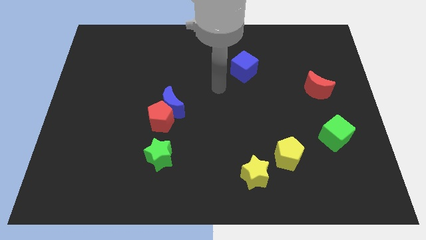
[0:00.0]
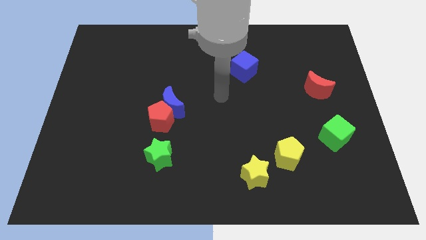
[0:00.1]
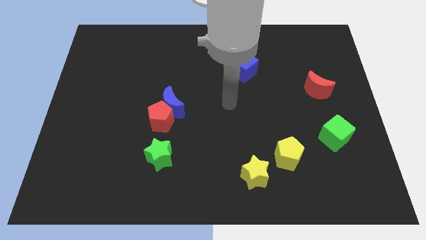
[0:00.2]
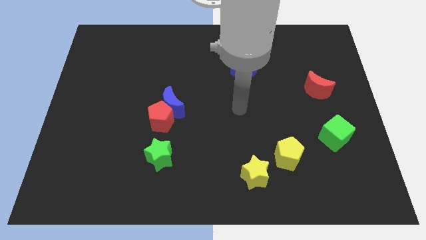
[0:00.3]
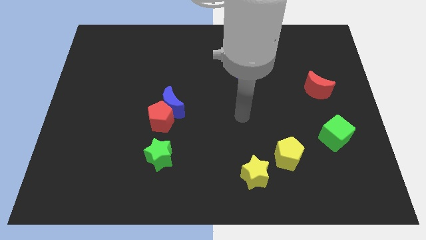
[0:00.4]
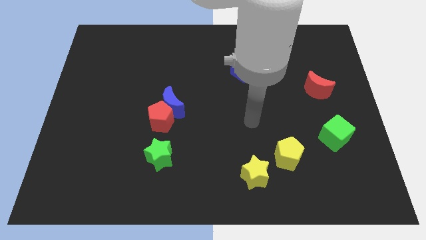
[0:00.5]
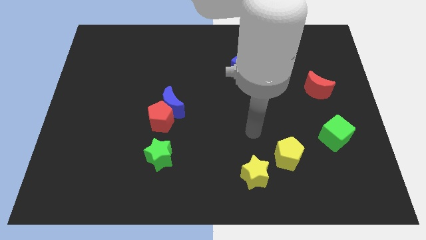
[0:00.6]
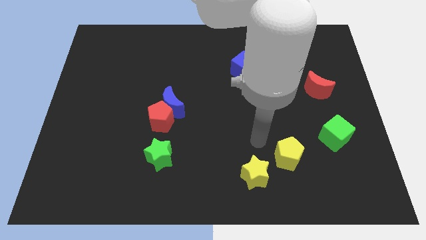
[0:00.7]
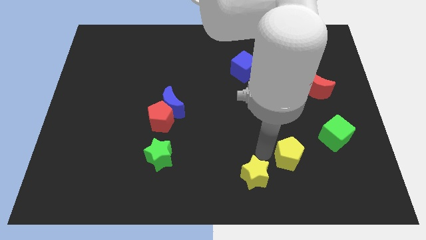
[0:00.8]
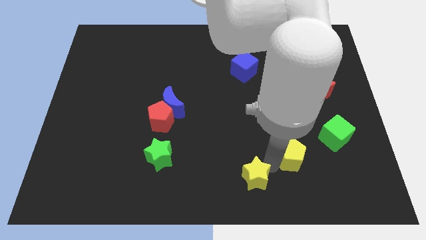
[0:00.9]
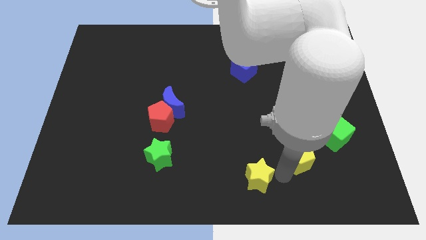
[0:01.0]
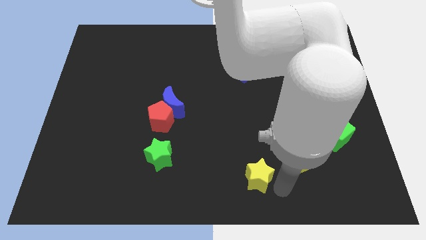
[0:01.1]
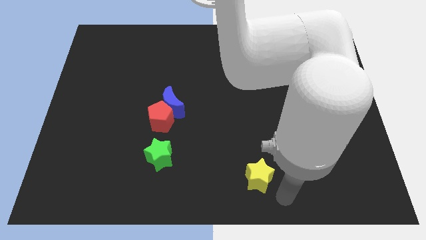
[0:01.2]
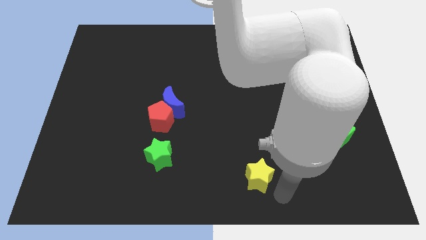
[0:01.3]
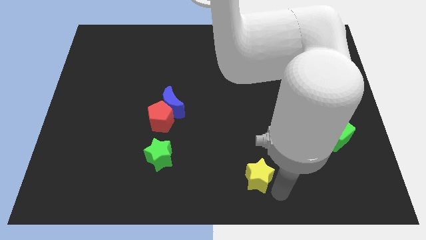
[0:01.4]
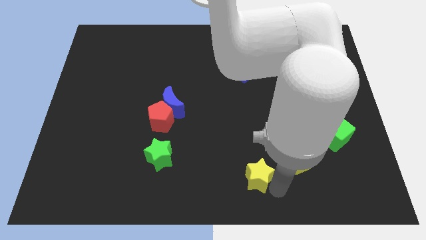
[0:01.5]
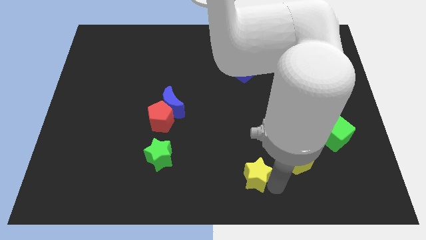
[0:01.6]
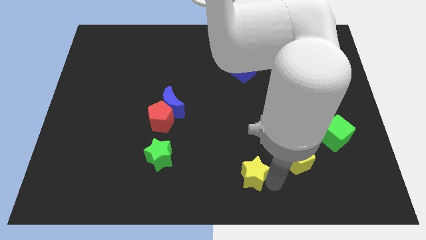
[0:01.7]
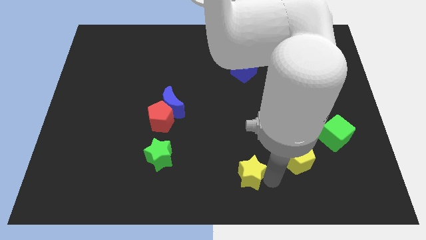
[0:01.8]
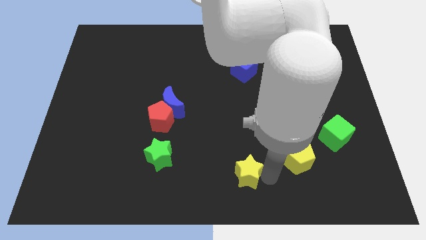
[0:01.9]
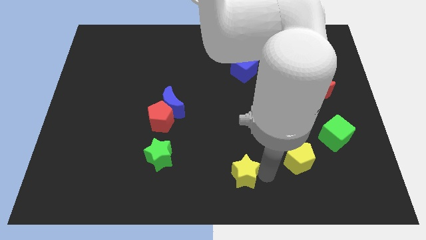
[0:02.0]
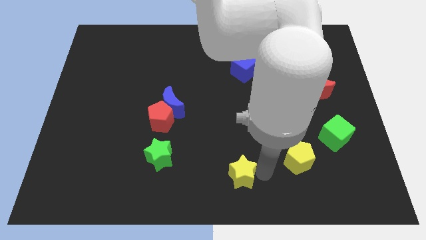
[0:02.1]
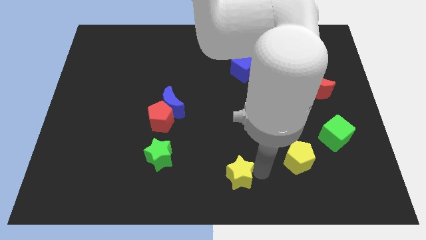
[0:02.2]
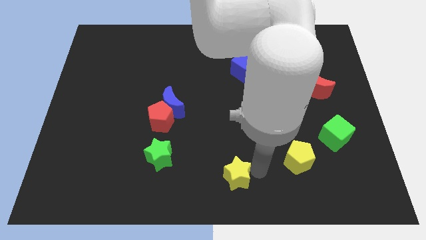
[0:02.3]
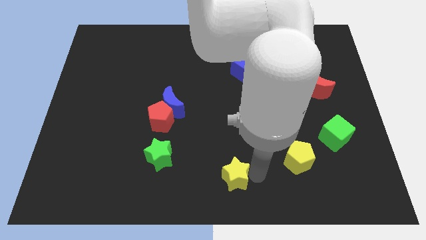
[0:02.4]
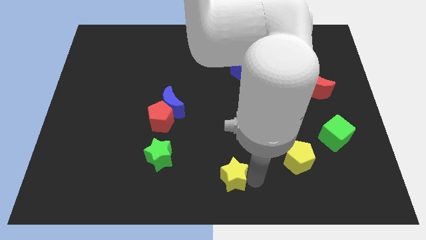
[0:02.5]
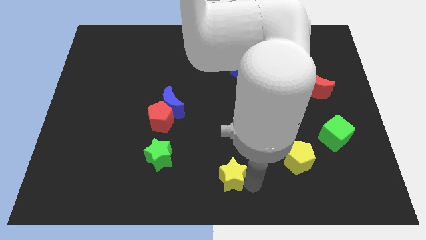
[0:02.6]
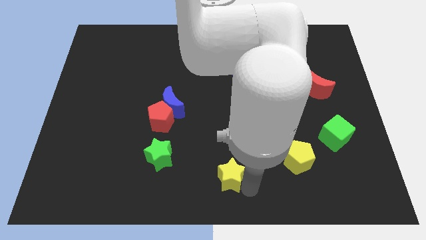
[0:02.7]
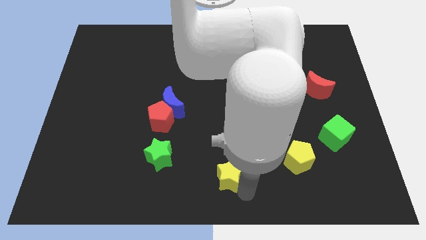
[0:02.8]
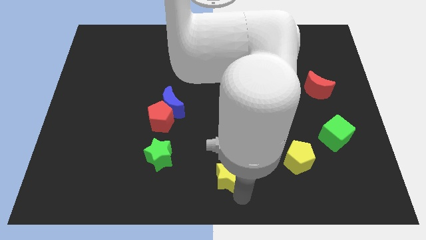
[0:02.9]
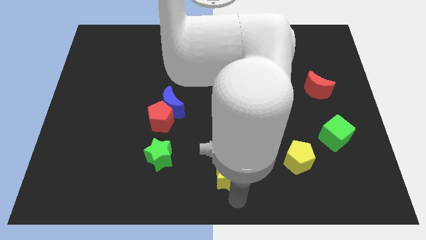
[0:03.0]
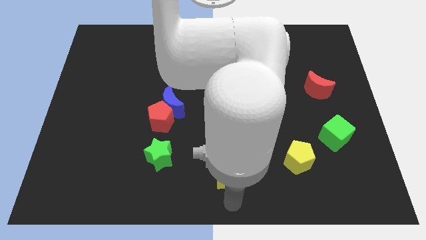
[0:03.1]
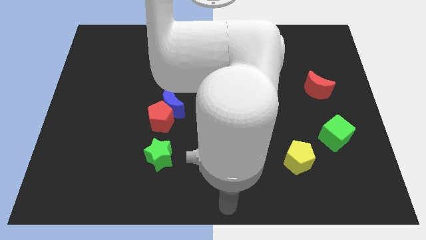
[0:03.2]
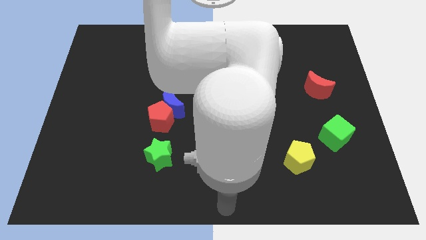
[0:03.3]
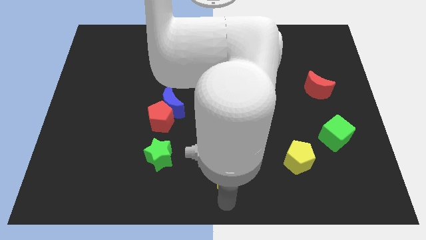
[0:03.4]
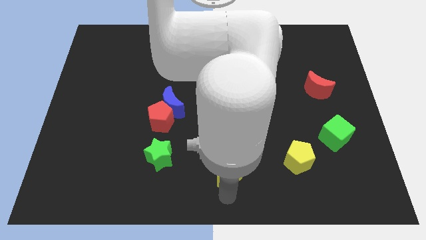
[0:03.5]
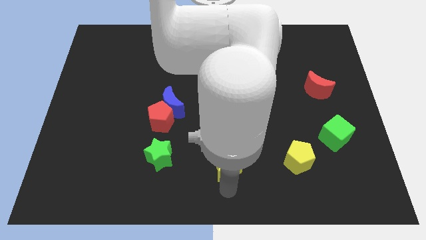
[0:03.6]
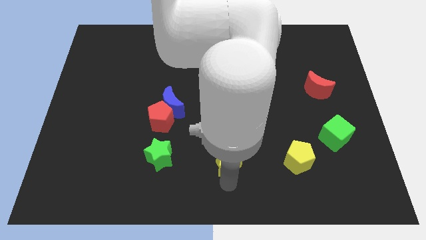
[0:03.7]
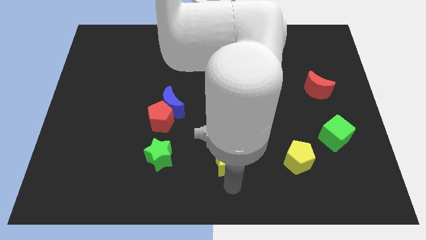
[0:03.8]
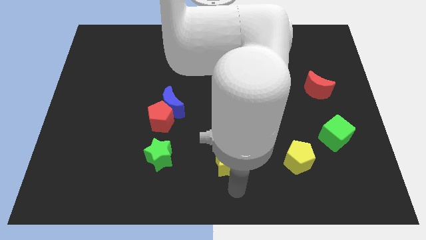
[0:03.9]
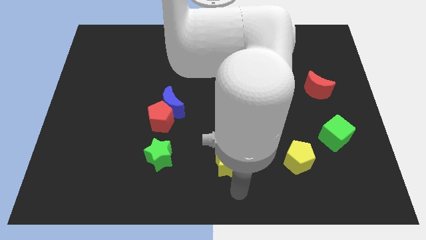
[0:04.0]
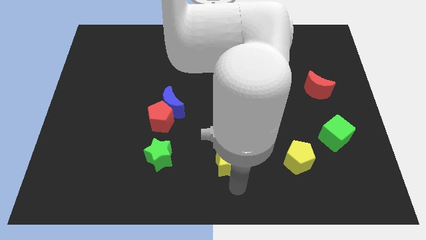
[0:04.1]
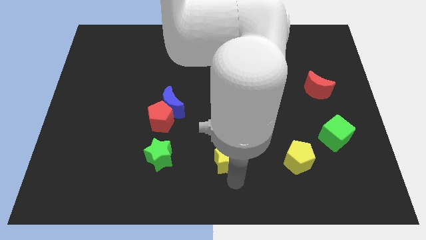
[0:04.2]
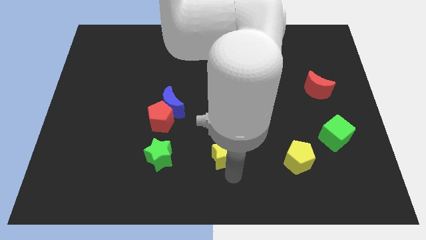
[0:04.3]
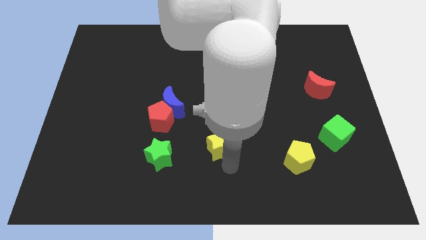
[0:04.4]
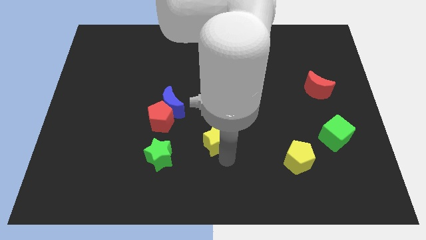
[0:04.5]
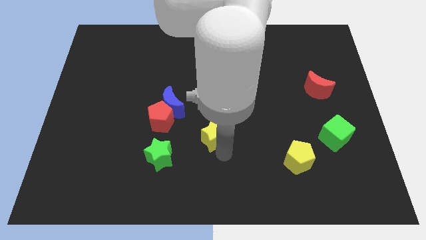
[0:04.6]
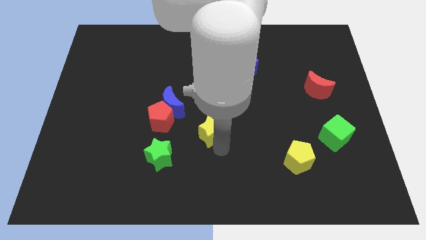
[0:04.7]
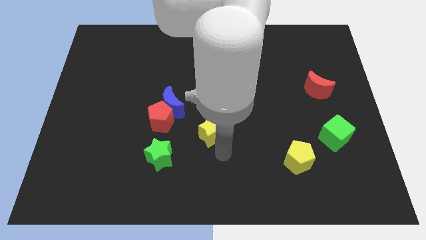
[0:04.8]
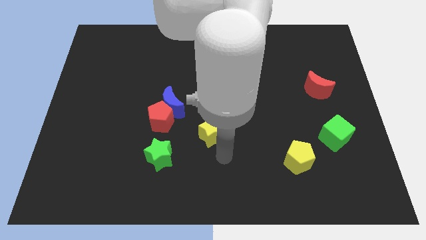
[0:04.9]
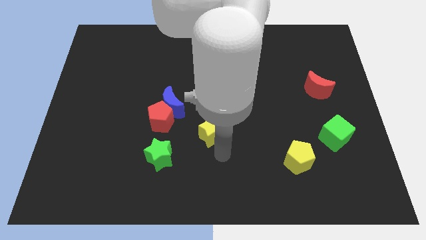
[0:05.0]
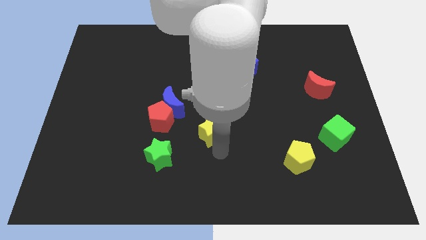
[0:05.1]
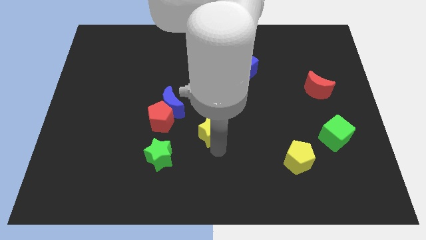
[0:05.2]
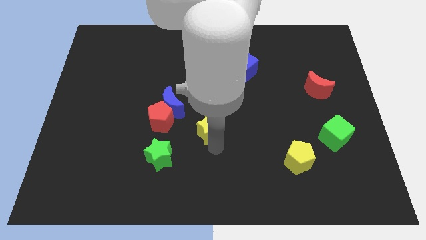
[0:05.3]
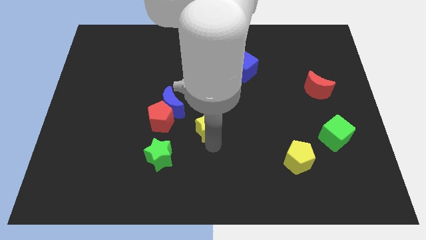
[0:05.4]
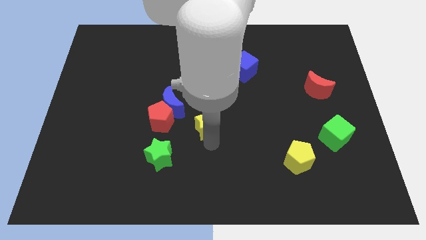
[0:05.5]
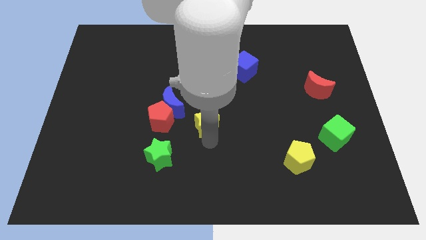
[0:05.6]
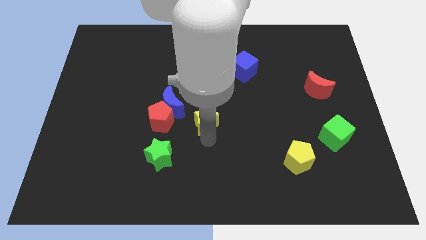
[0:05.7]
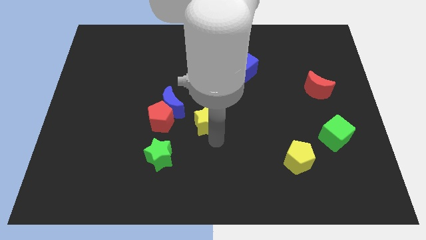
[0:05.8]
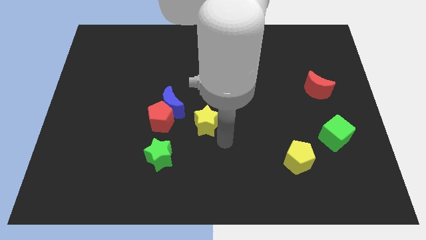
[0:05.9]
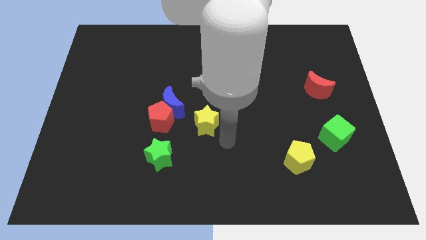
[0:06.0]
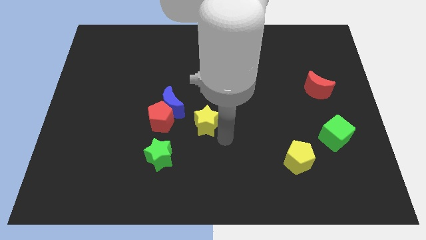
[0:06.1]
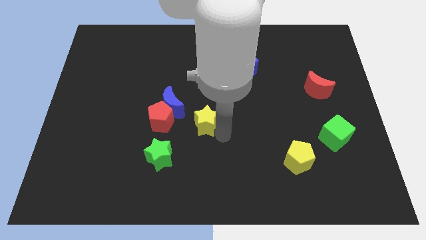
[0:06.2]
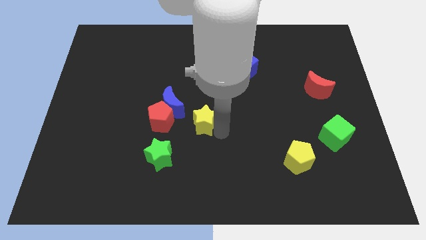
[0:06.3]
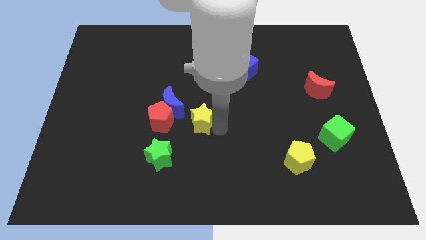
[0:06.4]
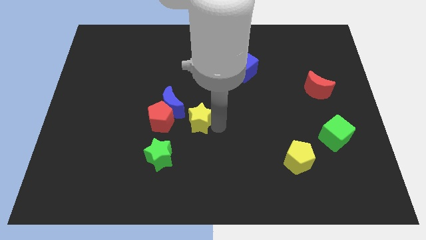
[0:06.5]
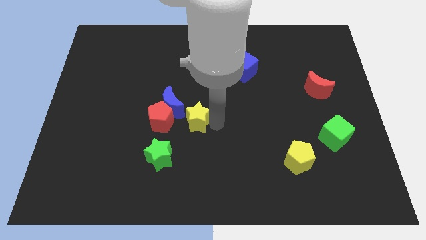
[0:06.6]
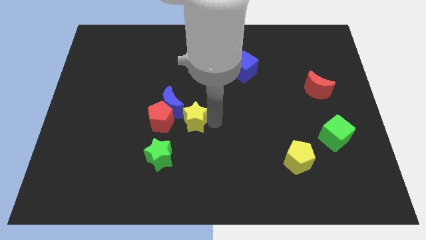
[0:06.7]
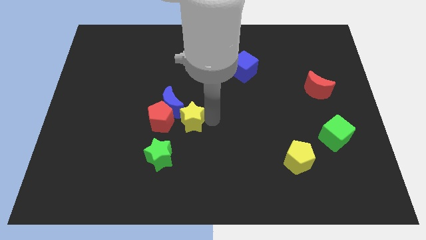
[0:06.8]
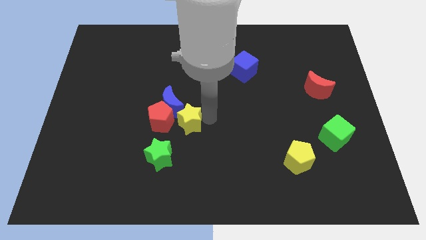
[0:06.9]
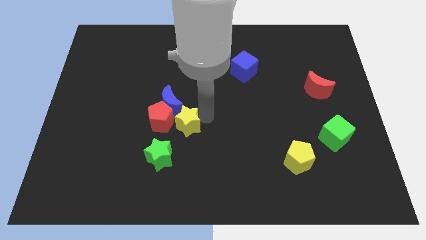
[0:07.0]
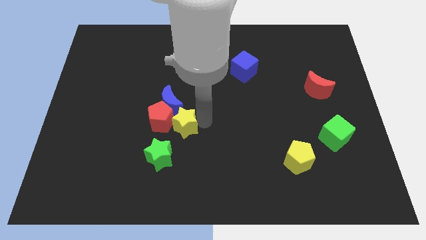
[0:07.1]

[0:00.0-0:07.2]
put the yellow star to the top right side of the red pentagon
